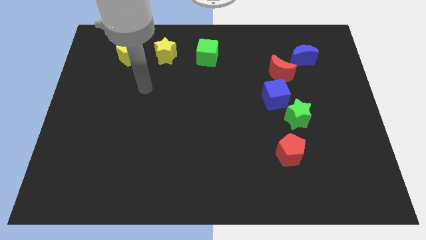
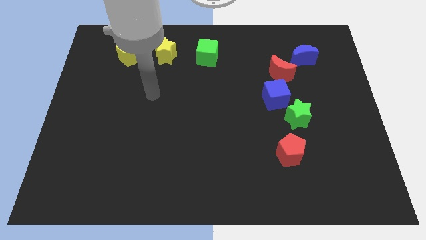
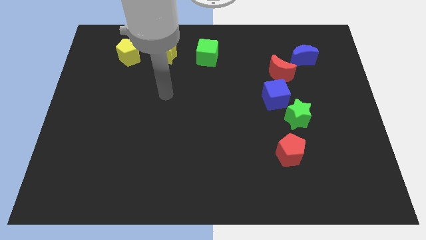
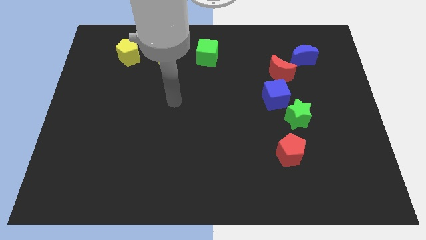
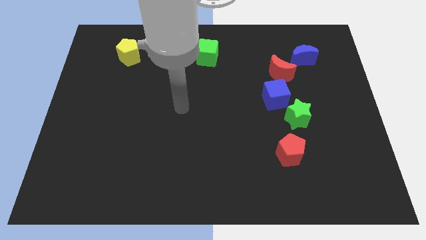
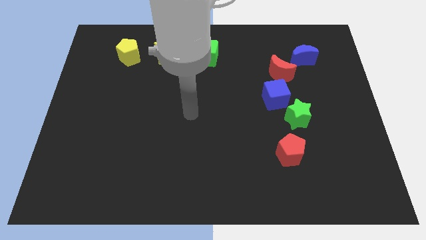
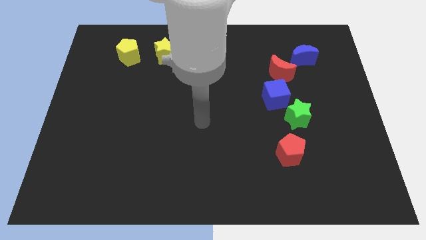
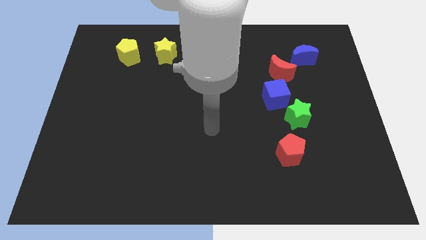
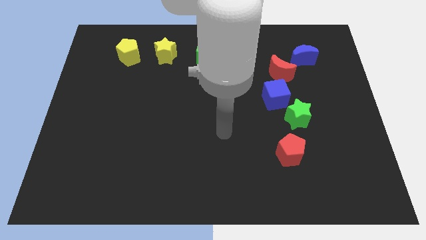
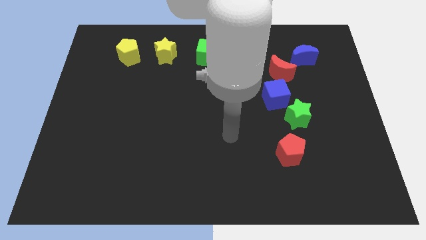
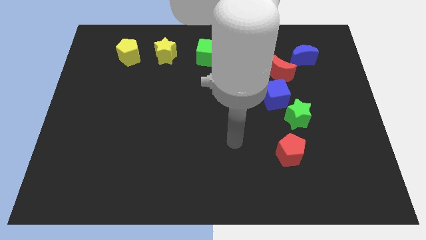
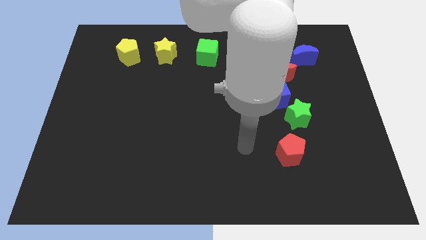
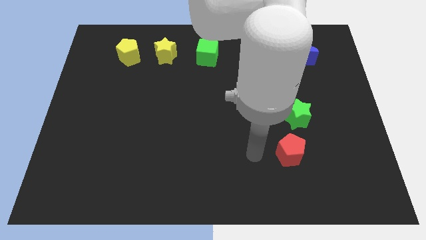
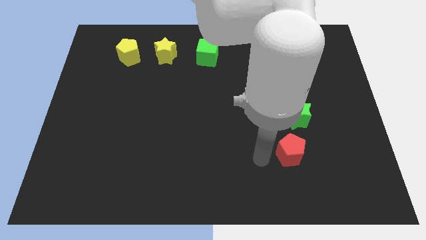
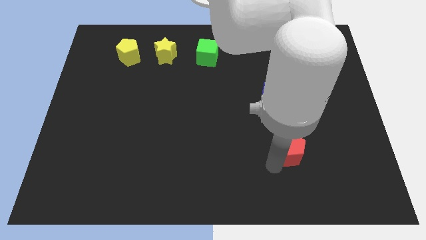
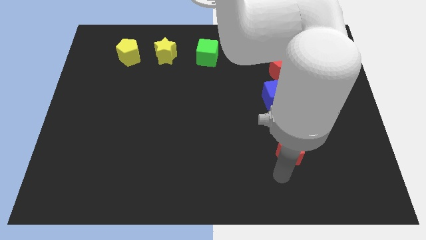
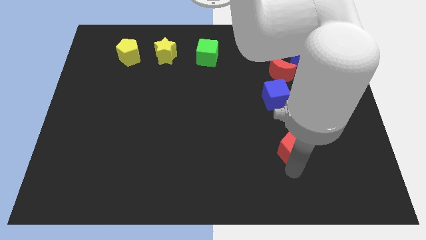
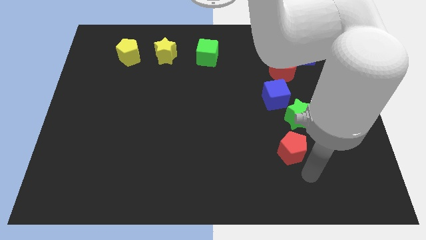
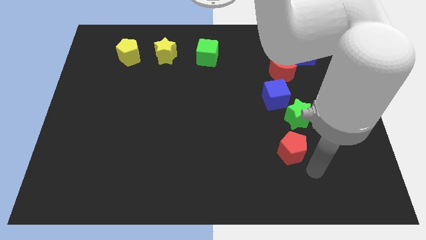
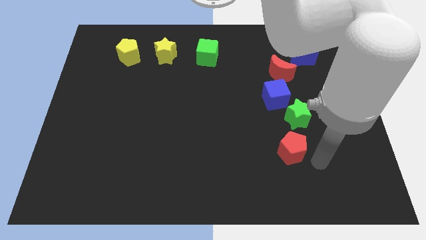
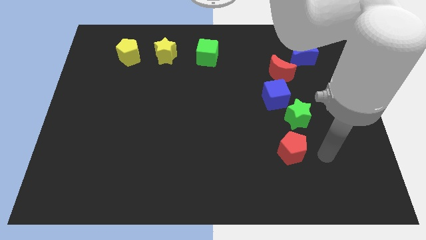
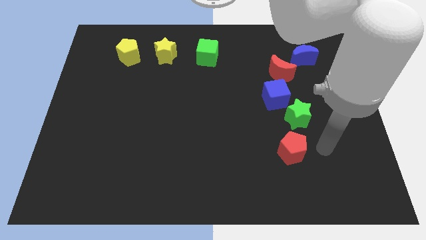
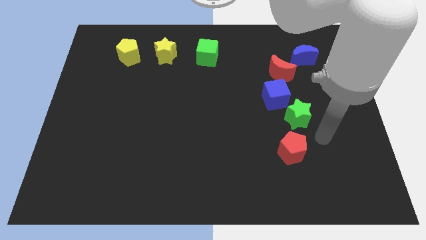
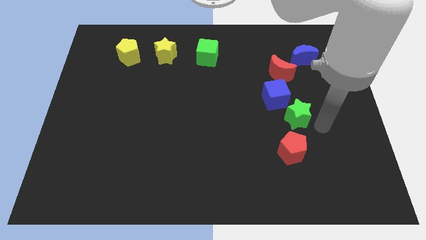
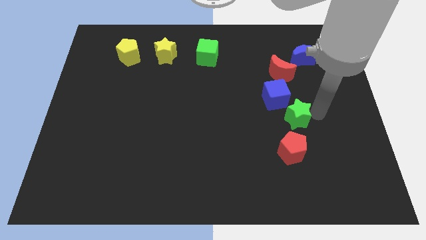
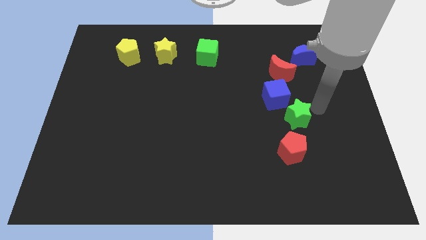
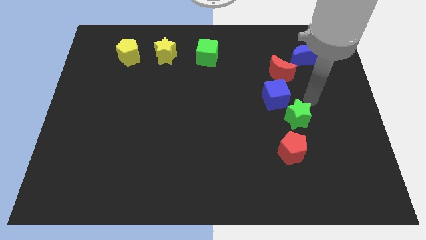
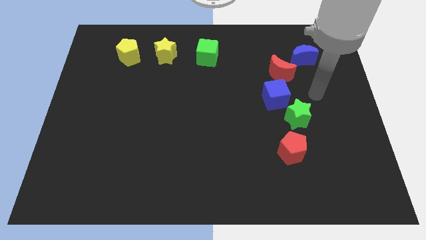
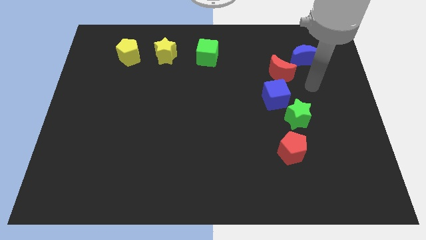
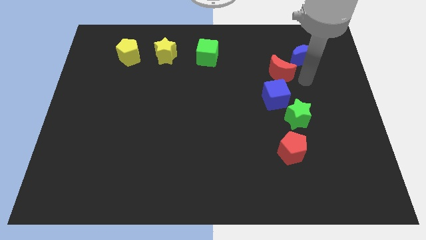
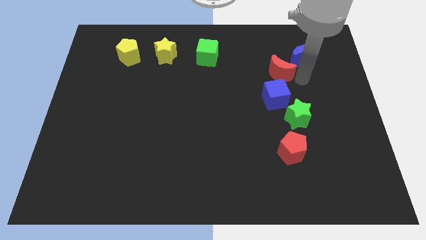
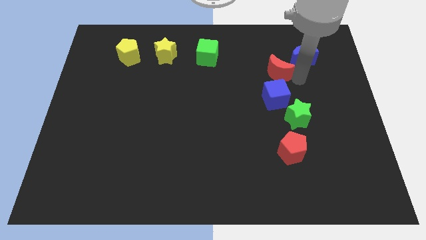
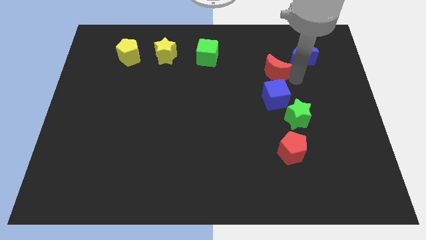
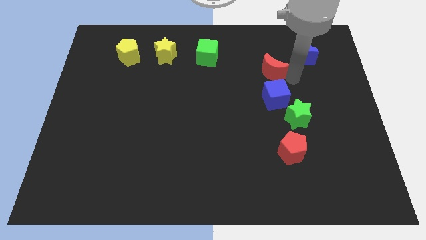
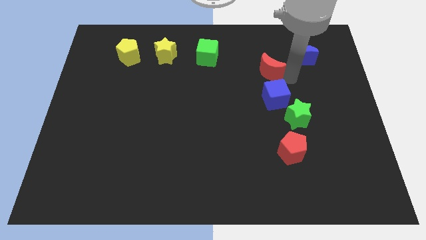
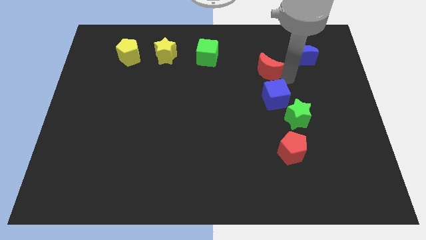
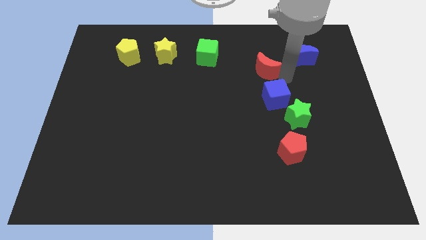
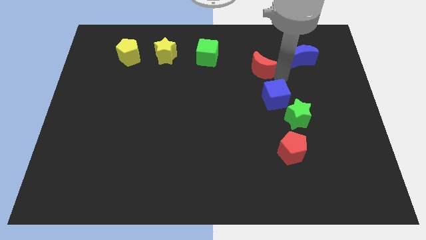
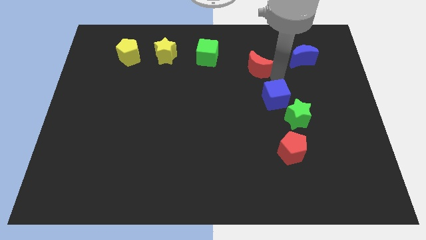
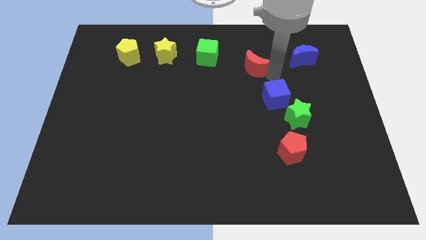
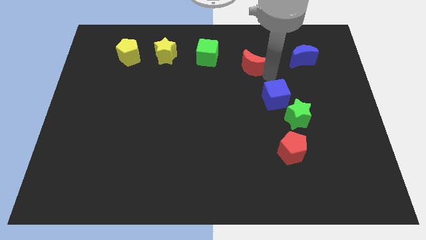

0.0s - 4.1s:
move the red moon left a bit

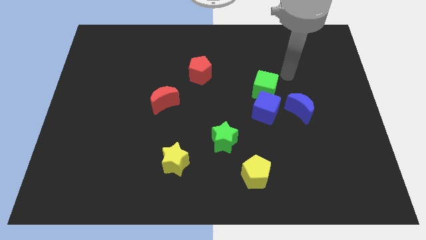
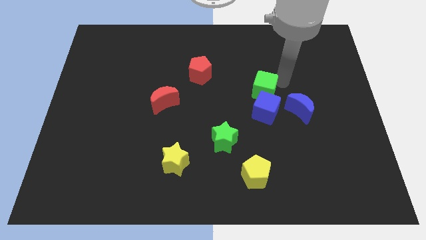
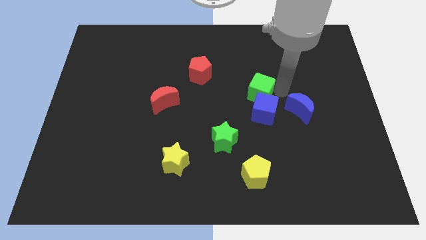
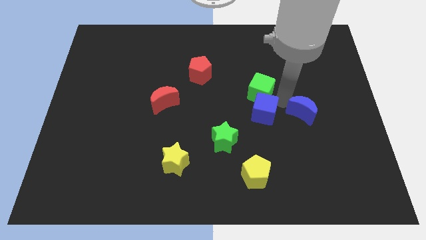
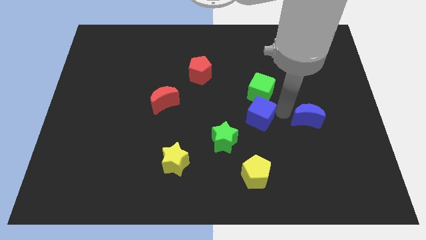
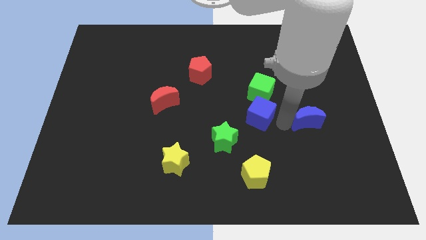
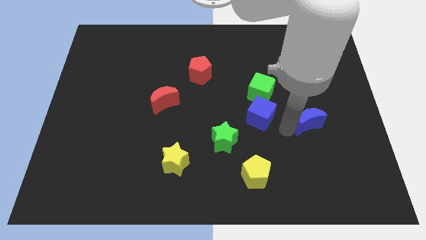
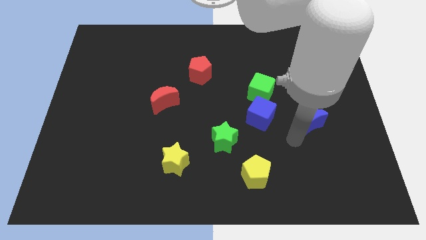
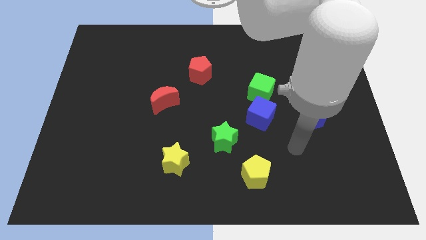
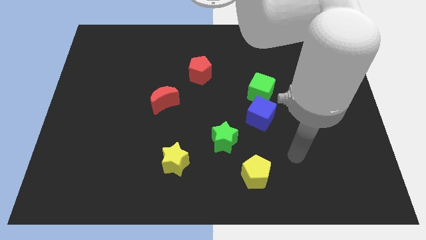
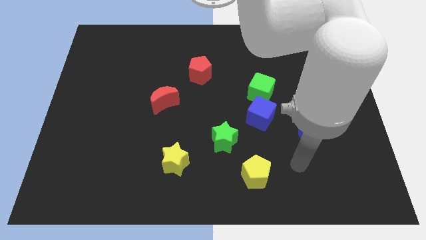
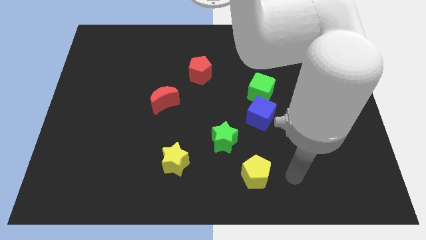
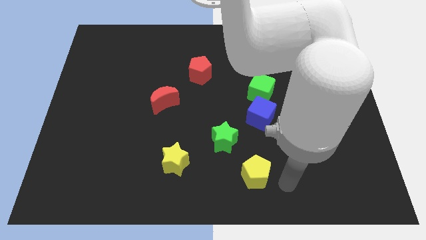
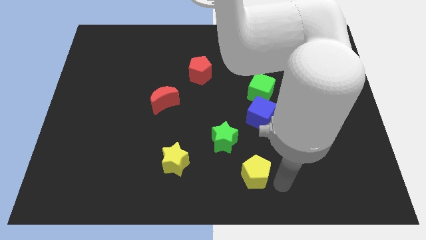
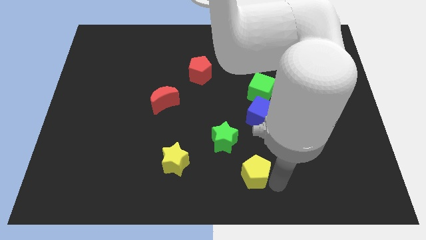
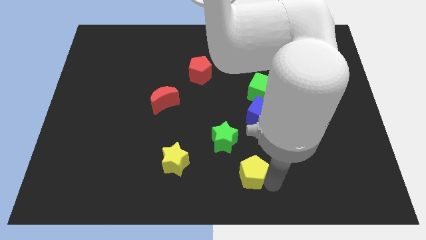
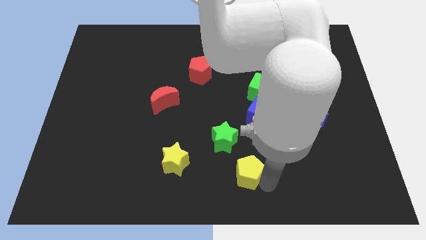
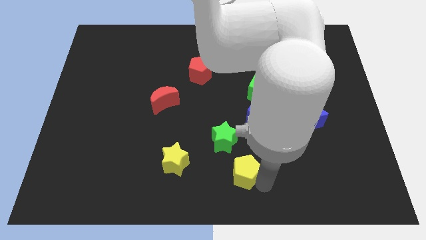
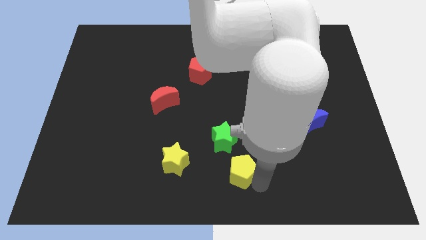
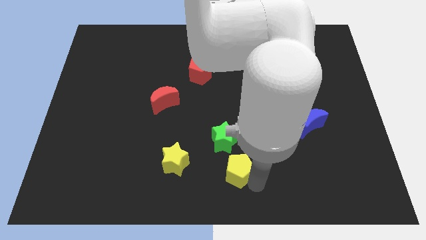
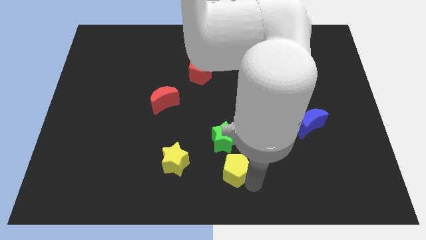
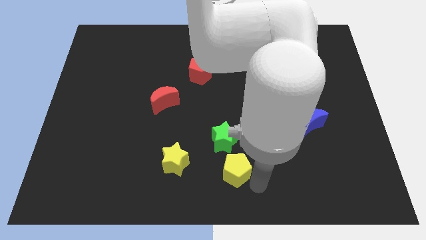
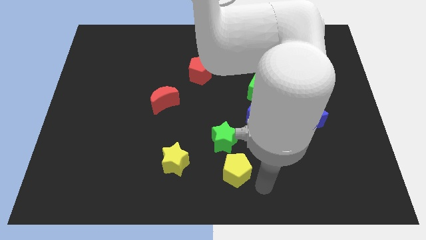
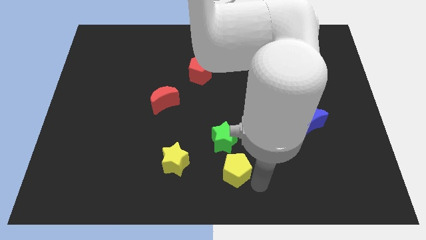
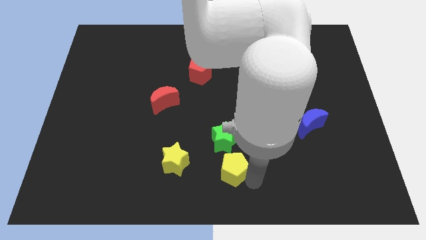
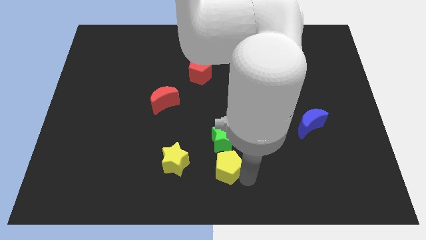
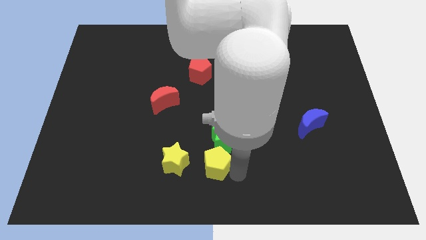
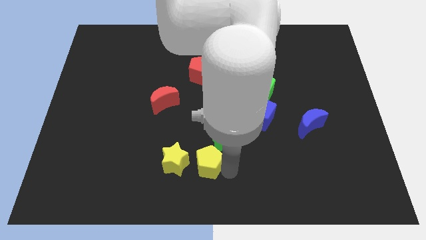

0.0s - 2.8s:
move the yellow pentagon up and left slightly

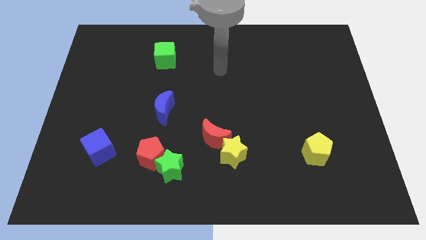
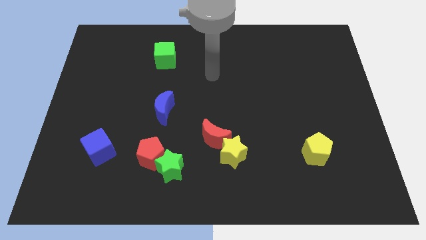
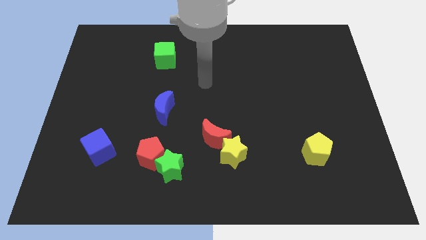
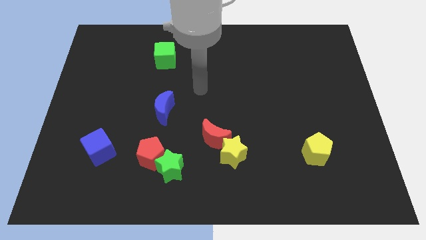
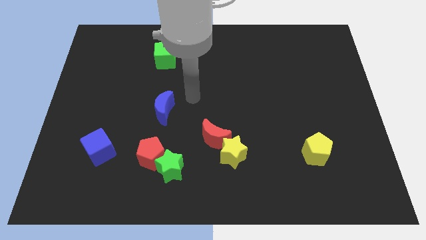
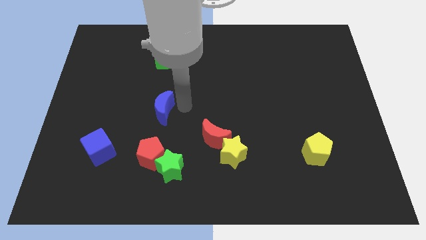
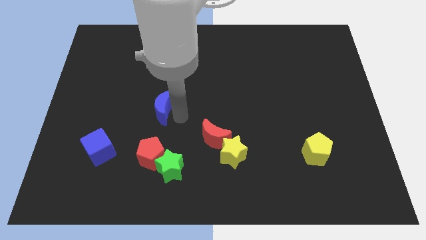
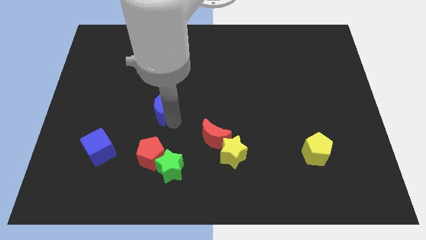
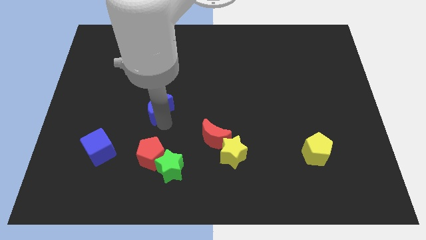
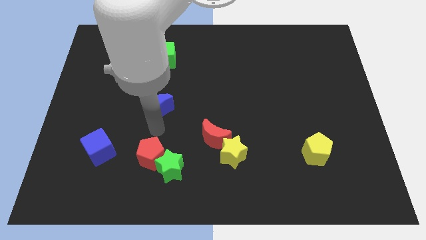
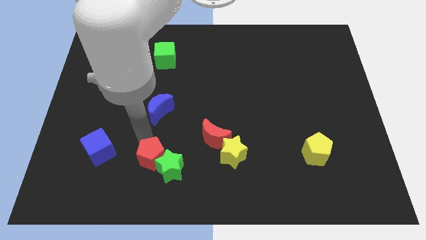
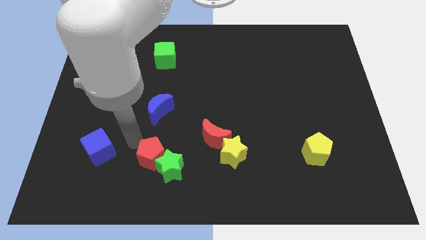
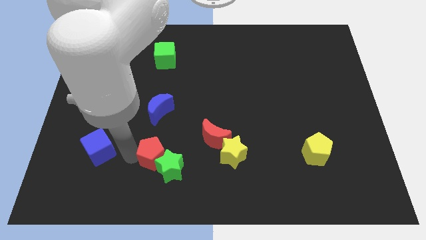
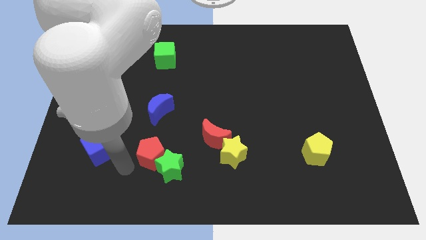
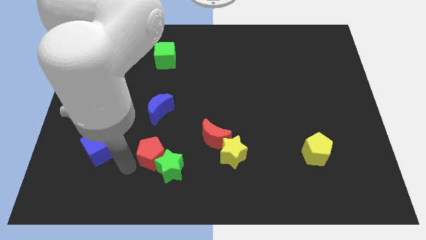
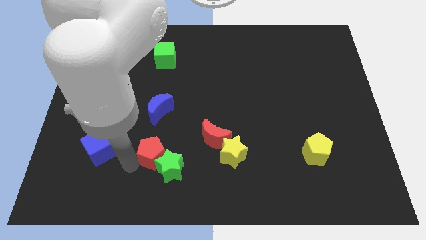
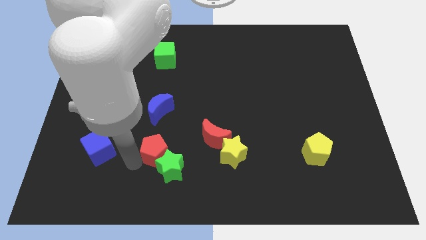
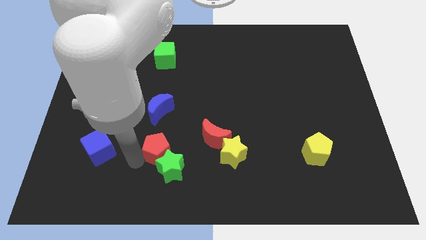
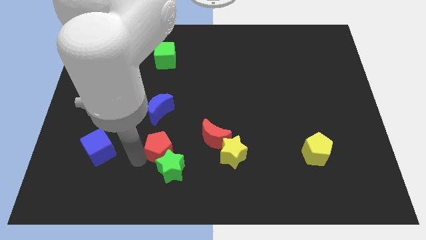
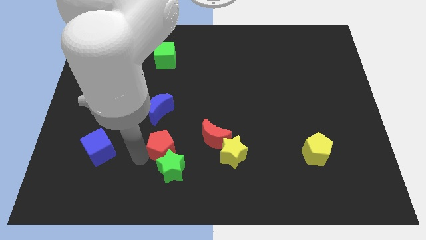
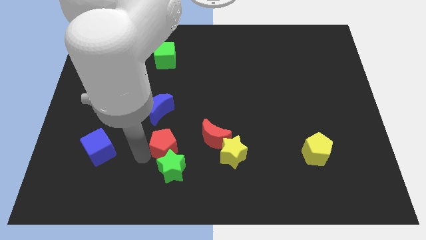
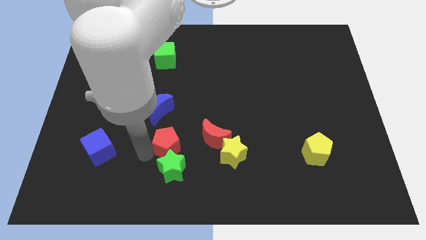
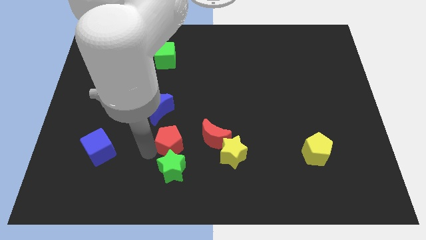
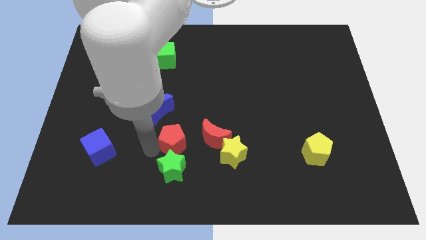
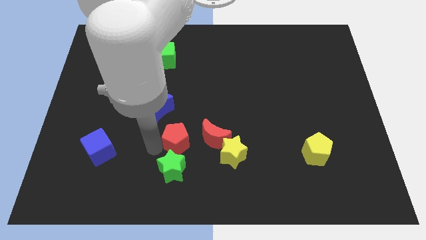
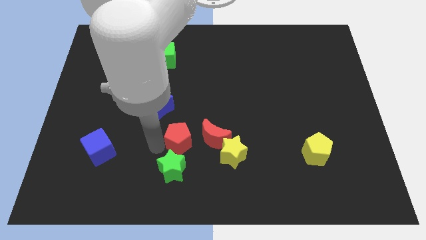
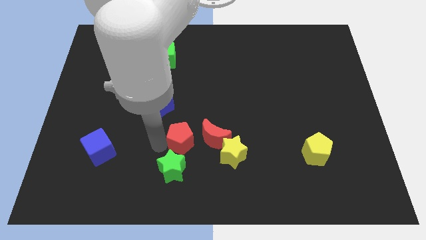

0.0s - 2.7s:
push the red pentagon up and then right slightly
